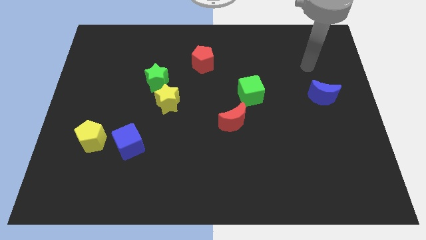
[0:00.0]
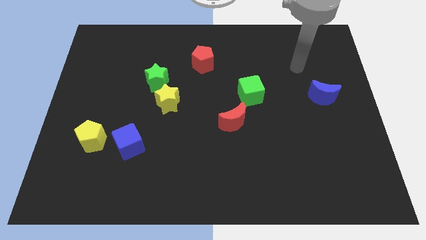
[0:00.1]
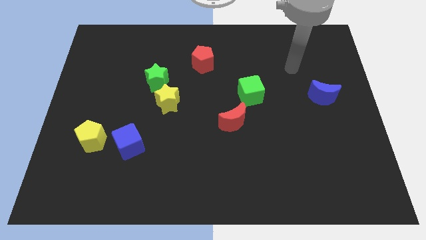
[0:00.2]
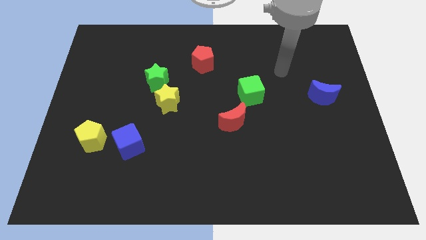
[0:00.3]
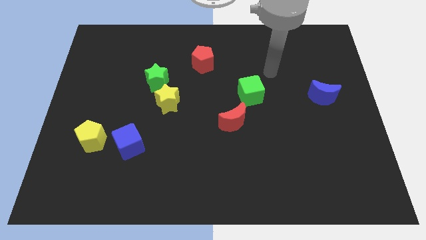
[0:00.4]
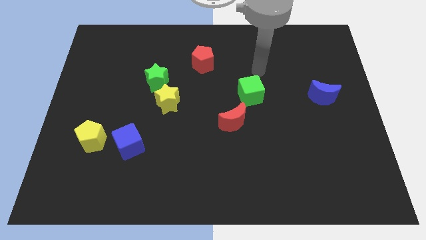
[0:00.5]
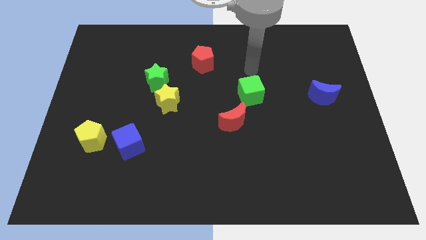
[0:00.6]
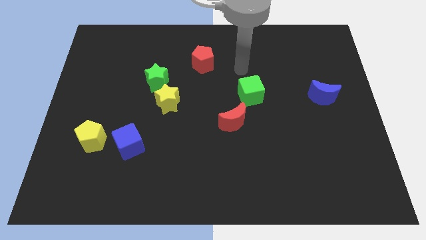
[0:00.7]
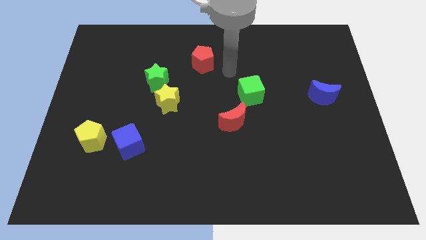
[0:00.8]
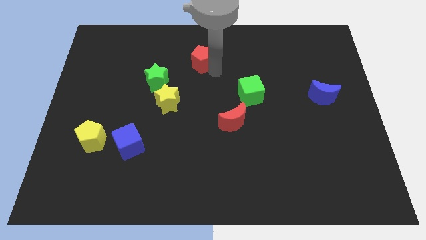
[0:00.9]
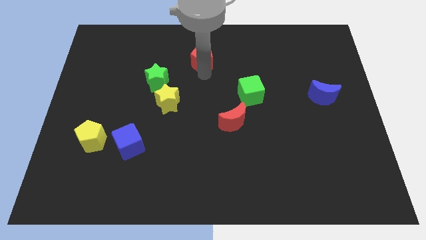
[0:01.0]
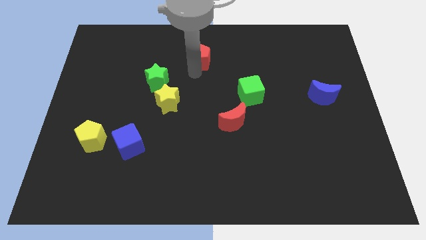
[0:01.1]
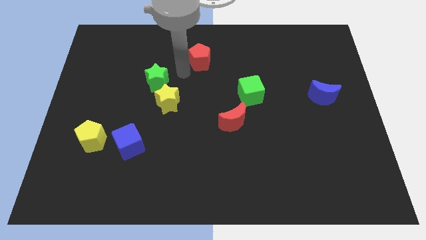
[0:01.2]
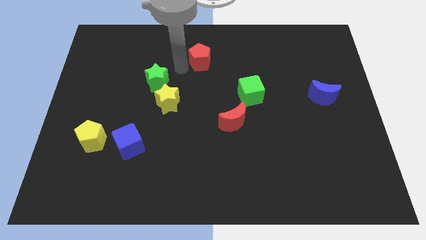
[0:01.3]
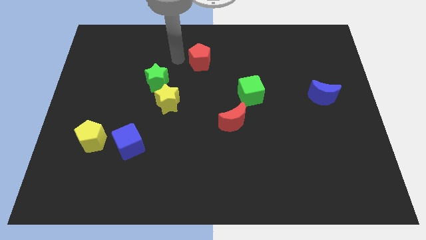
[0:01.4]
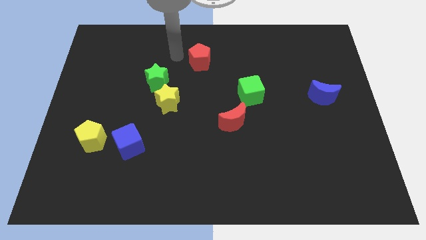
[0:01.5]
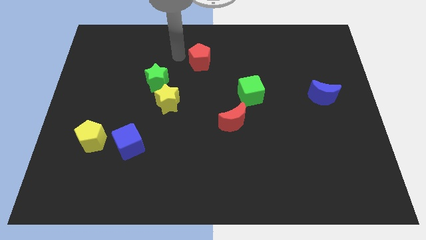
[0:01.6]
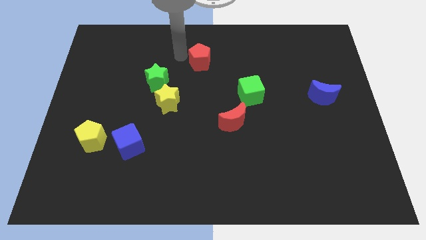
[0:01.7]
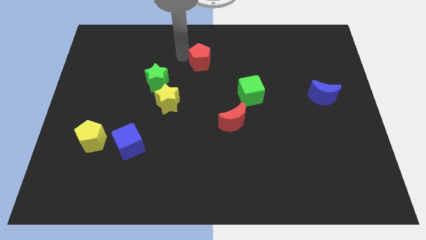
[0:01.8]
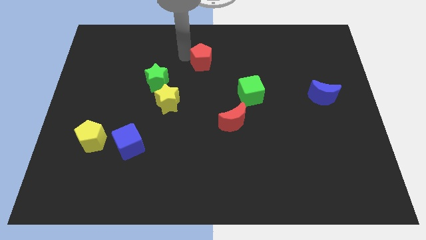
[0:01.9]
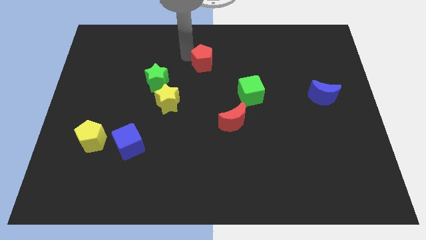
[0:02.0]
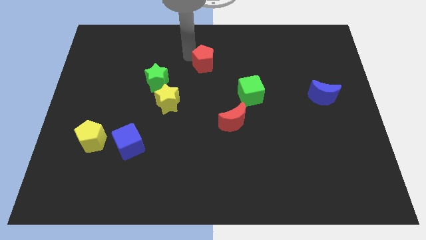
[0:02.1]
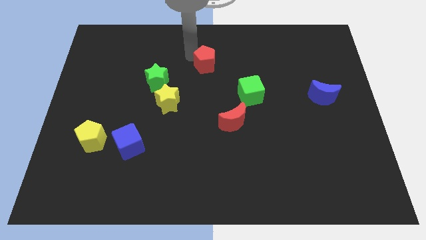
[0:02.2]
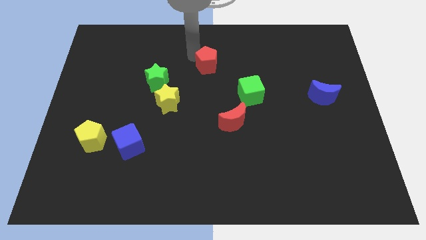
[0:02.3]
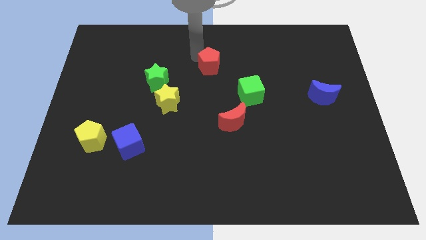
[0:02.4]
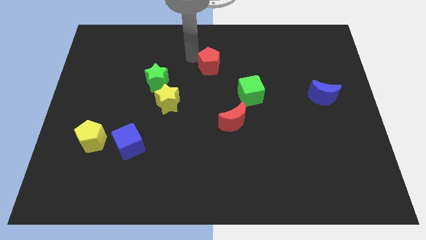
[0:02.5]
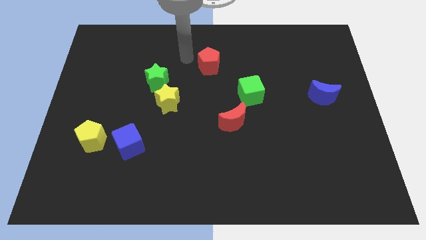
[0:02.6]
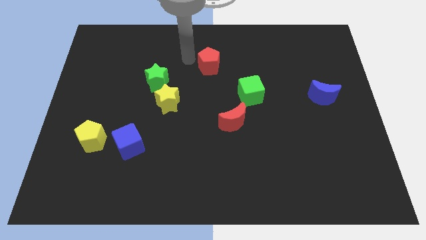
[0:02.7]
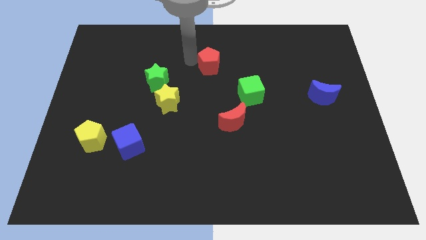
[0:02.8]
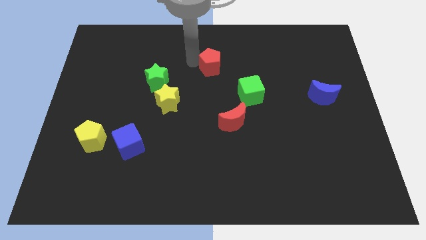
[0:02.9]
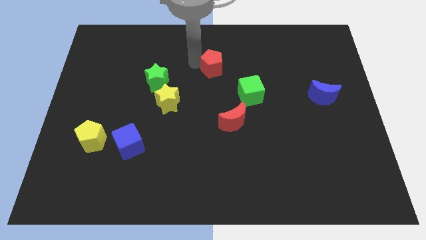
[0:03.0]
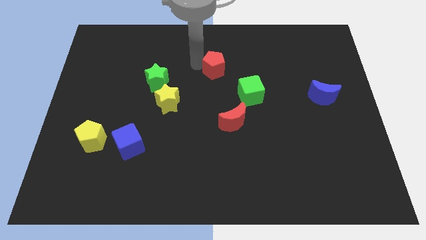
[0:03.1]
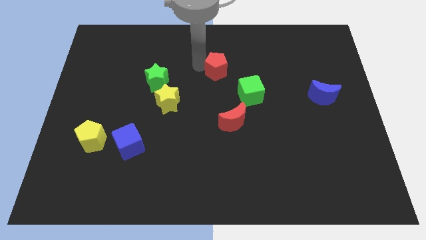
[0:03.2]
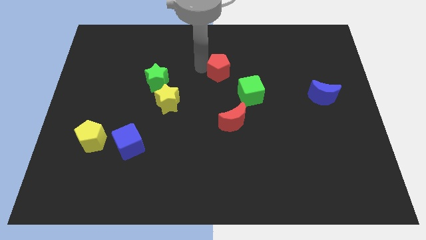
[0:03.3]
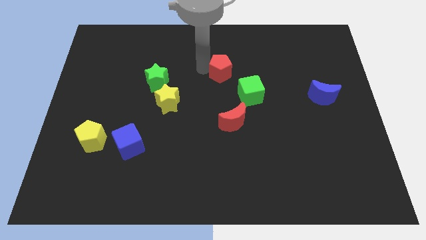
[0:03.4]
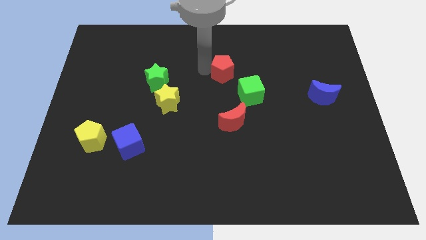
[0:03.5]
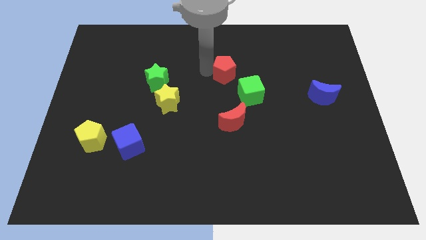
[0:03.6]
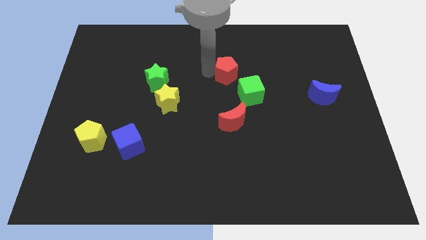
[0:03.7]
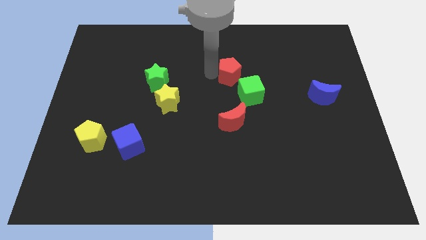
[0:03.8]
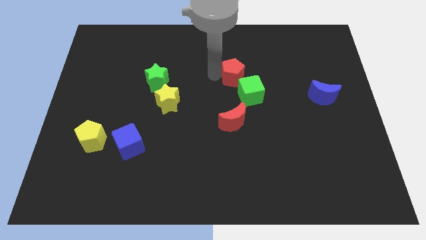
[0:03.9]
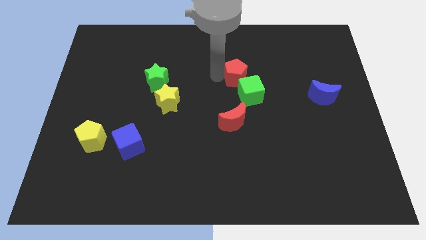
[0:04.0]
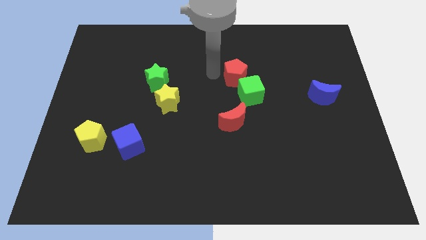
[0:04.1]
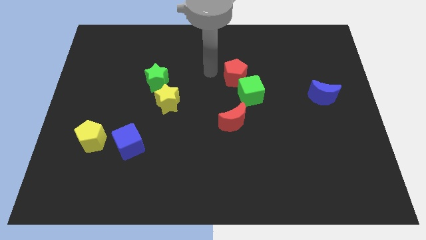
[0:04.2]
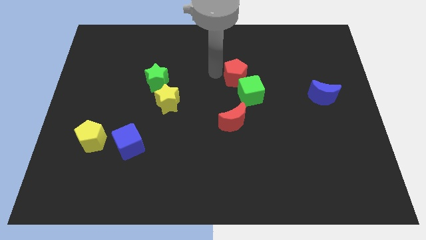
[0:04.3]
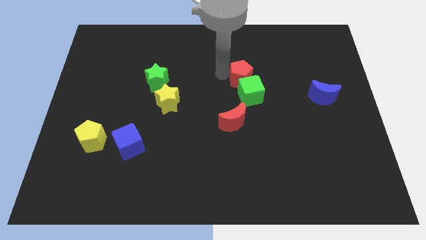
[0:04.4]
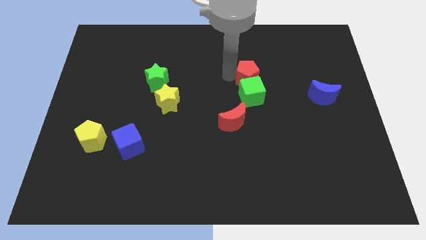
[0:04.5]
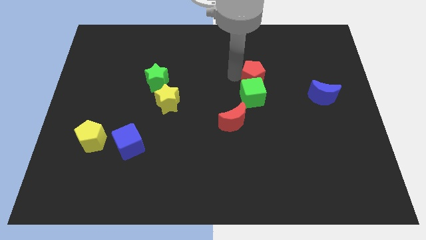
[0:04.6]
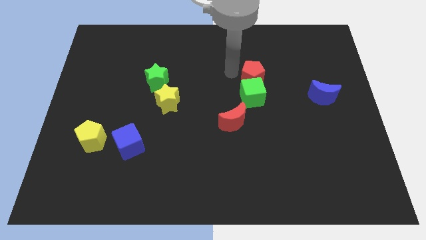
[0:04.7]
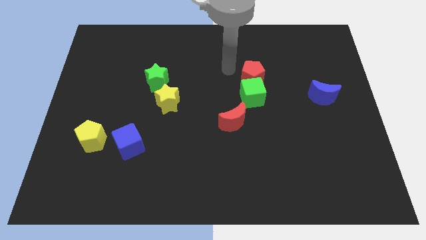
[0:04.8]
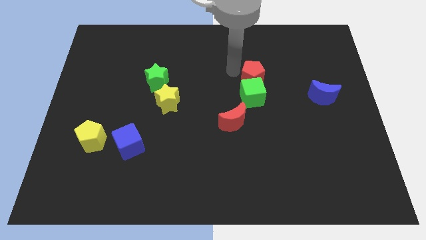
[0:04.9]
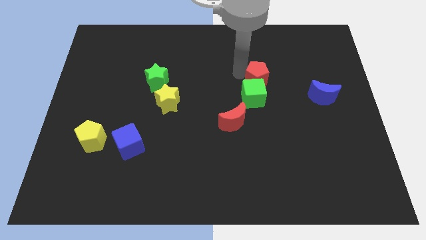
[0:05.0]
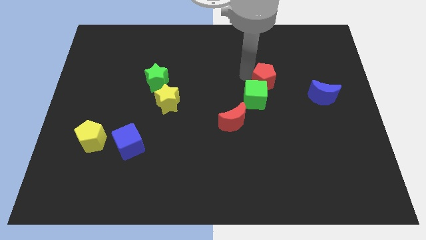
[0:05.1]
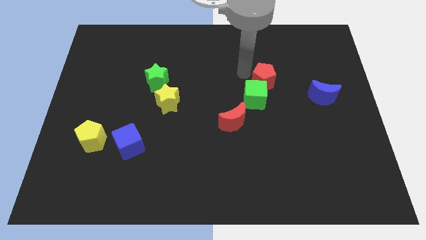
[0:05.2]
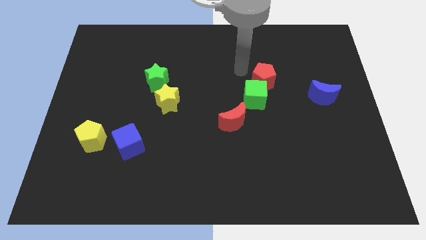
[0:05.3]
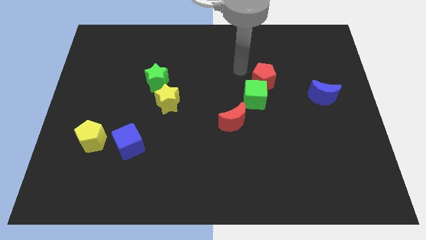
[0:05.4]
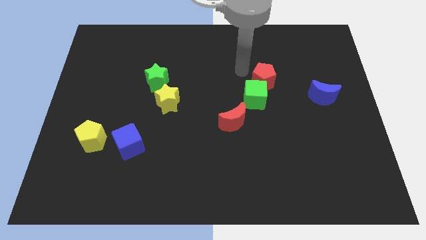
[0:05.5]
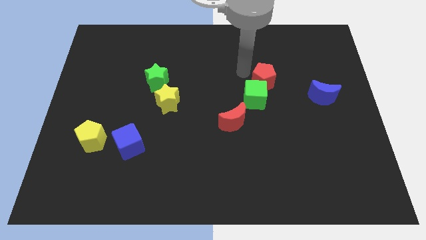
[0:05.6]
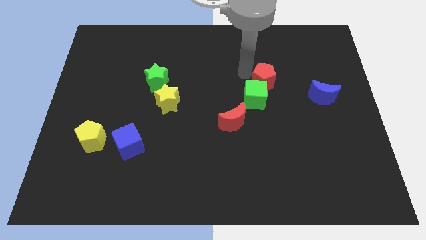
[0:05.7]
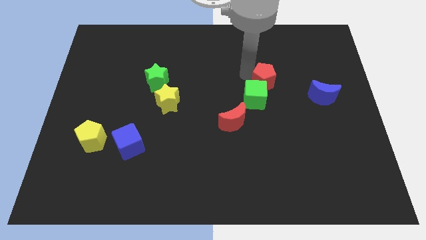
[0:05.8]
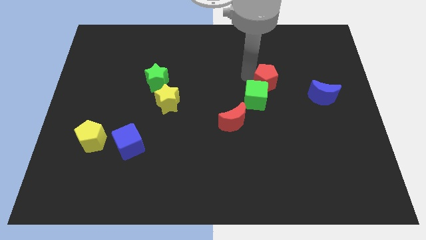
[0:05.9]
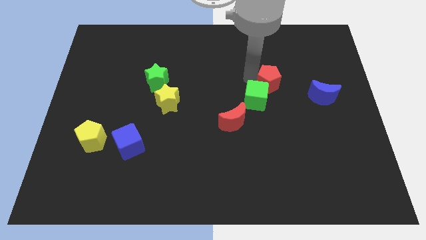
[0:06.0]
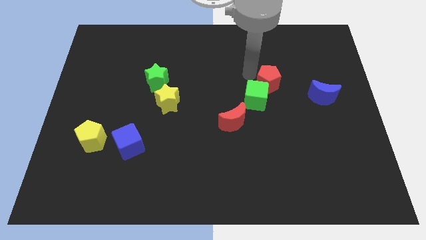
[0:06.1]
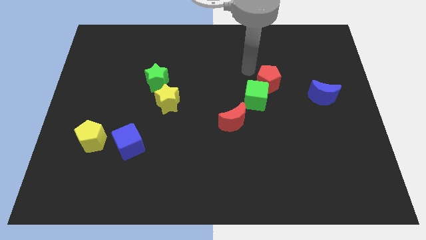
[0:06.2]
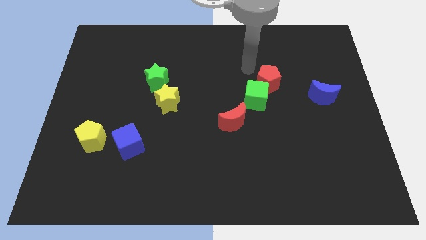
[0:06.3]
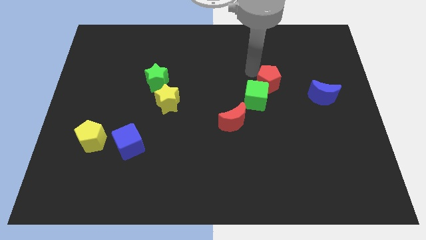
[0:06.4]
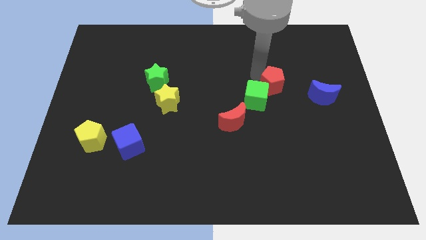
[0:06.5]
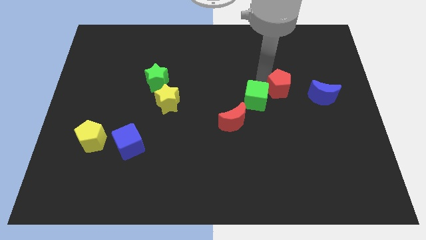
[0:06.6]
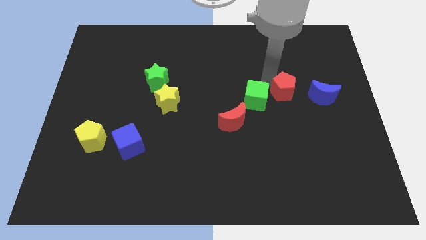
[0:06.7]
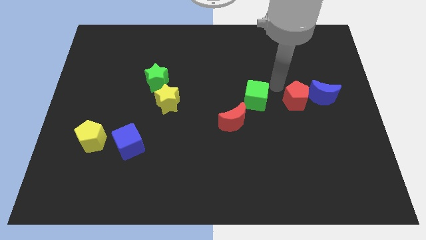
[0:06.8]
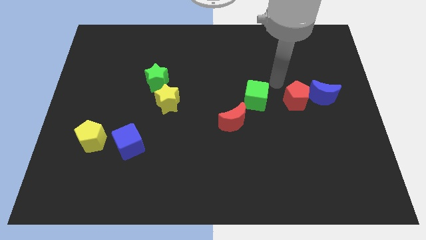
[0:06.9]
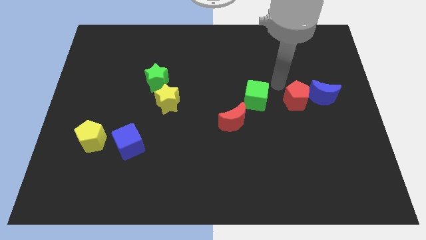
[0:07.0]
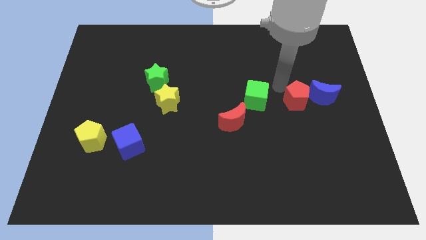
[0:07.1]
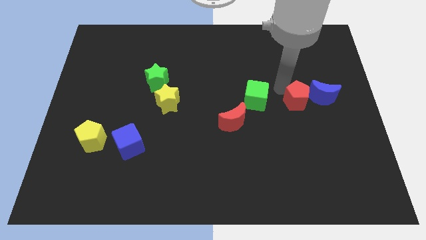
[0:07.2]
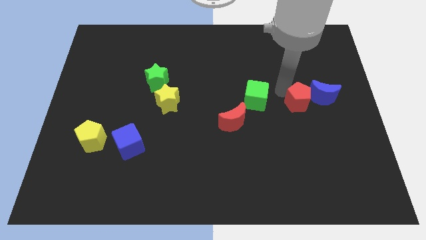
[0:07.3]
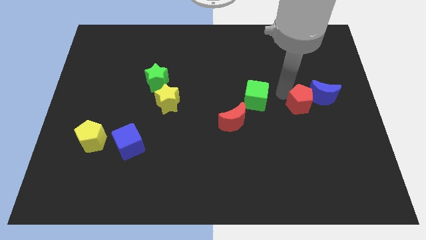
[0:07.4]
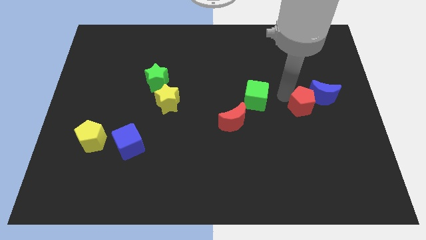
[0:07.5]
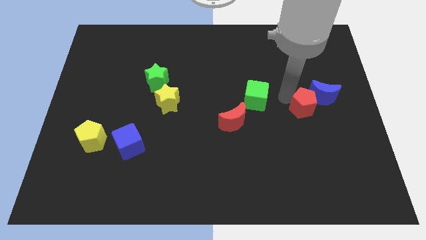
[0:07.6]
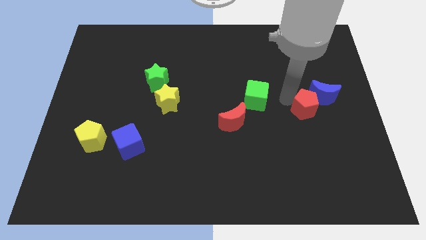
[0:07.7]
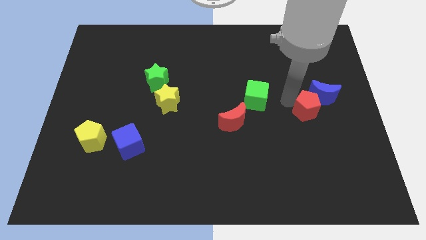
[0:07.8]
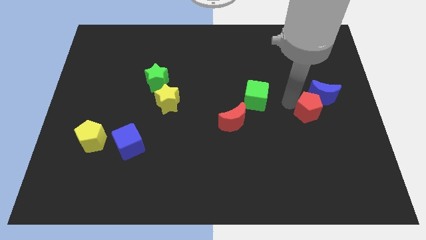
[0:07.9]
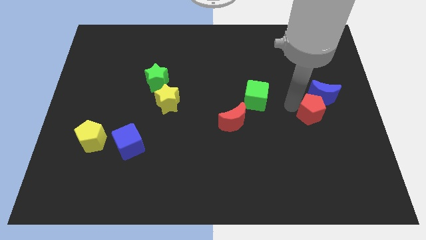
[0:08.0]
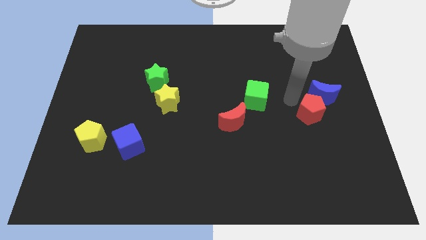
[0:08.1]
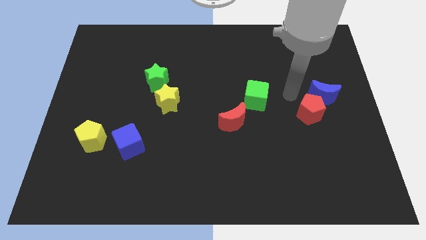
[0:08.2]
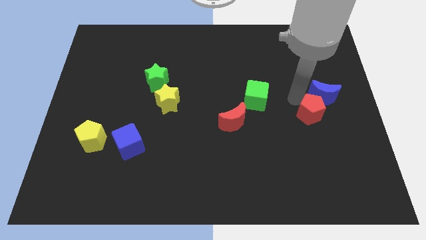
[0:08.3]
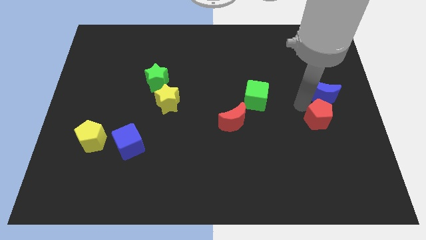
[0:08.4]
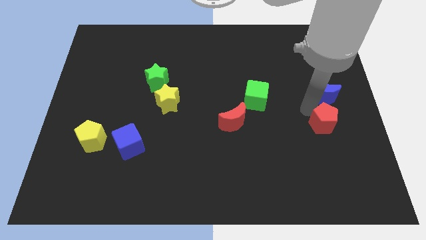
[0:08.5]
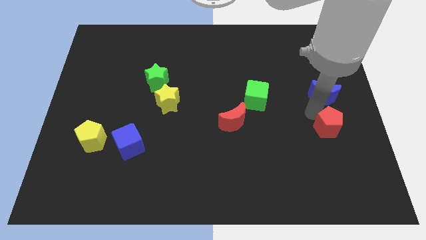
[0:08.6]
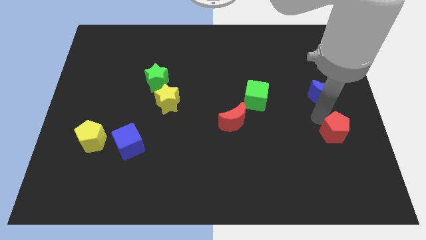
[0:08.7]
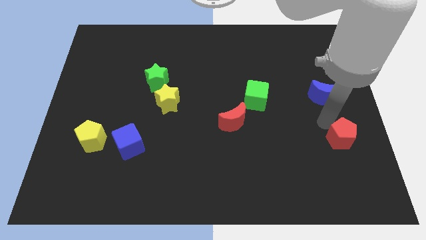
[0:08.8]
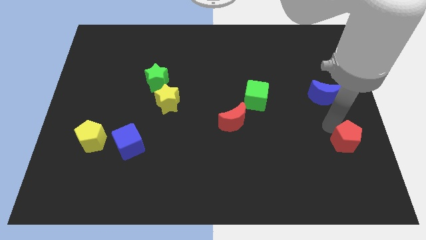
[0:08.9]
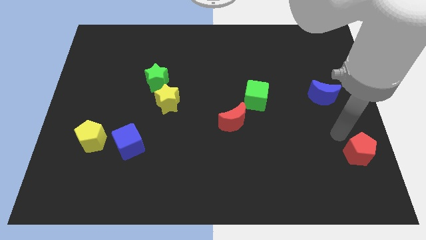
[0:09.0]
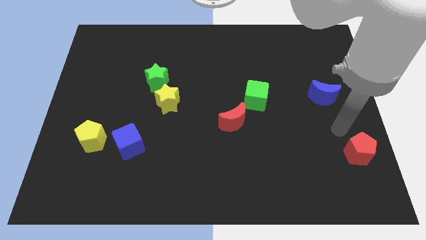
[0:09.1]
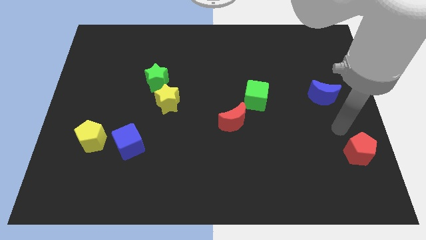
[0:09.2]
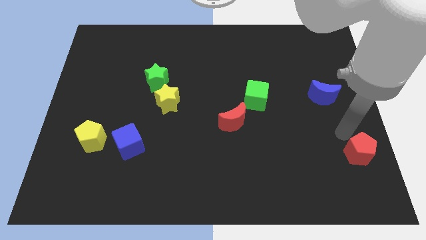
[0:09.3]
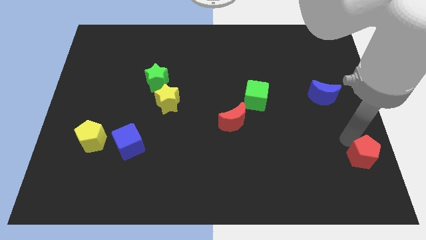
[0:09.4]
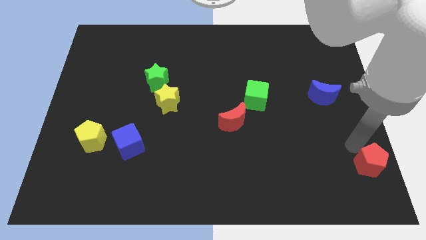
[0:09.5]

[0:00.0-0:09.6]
put the red pentagon to the bottom right corner
